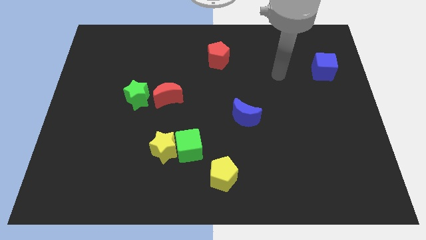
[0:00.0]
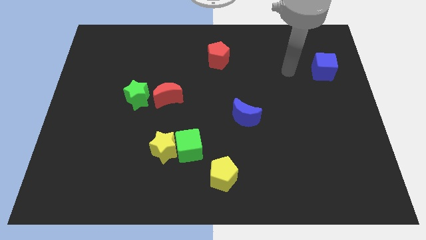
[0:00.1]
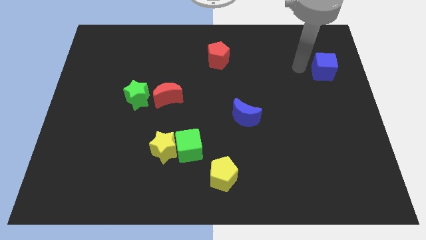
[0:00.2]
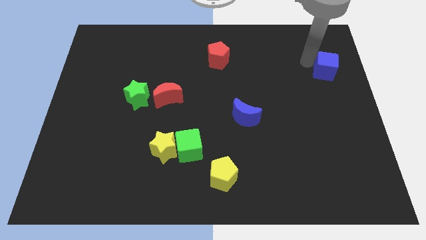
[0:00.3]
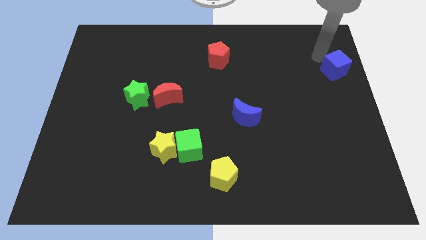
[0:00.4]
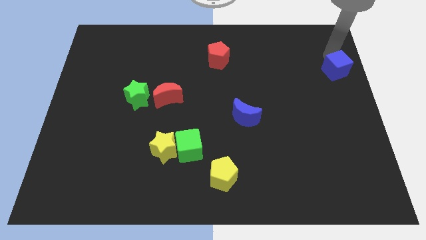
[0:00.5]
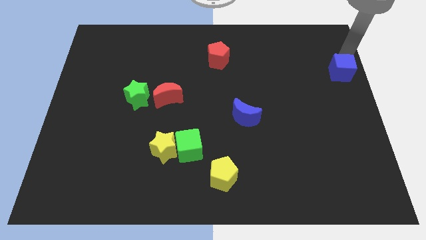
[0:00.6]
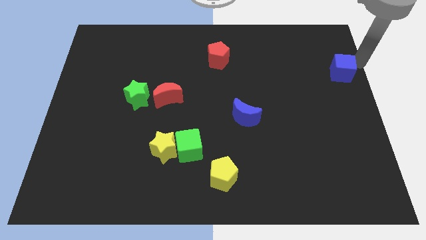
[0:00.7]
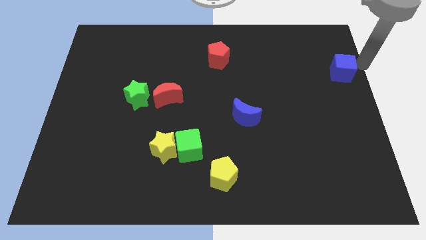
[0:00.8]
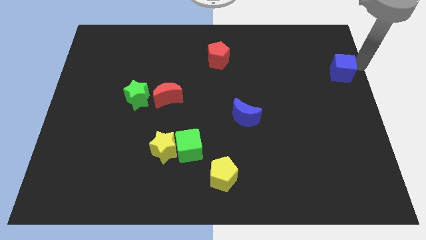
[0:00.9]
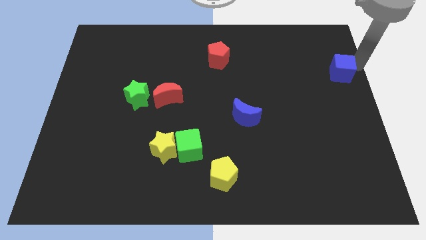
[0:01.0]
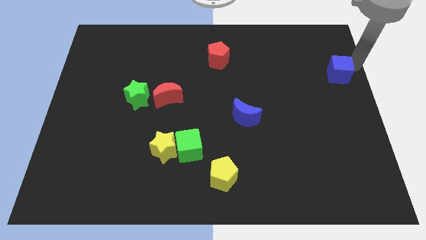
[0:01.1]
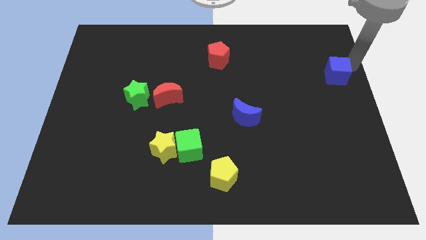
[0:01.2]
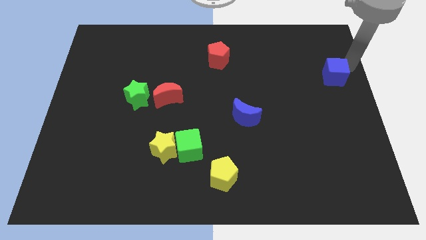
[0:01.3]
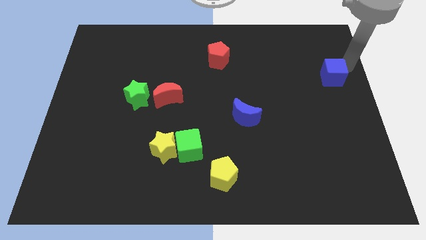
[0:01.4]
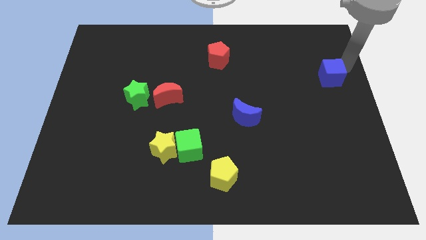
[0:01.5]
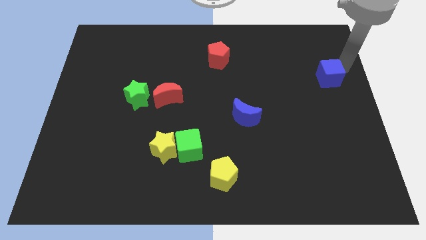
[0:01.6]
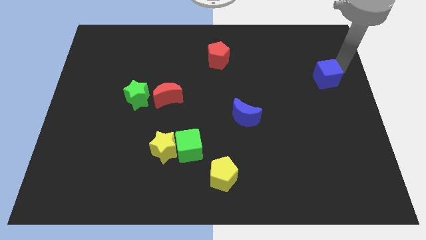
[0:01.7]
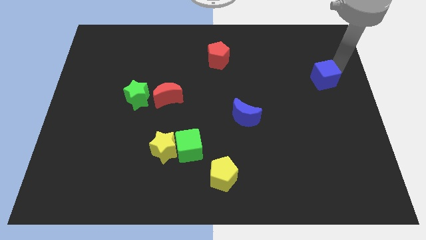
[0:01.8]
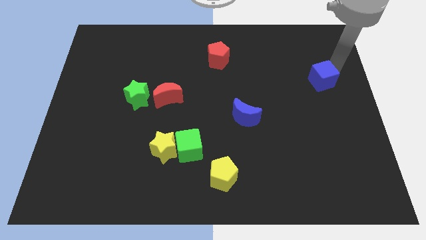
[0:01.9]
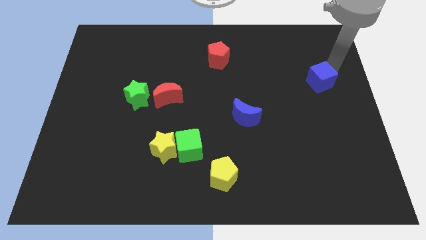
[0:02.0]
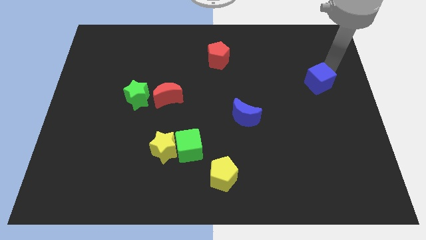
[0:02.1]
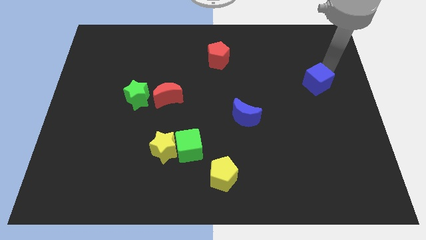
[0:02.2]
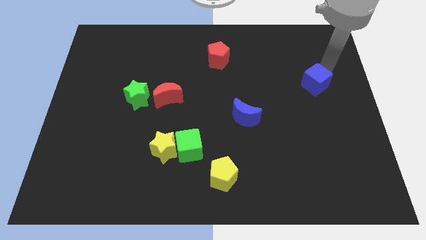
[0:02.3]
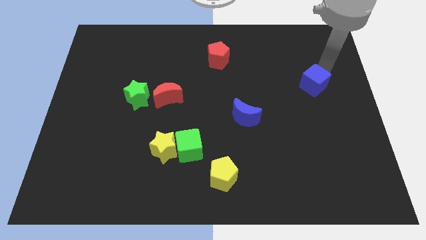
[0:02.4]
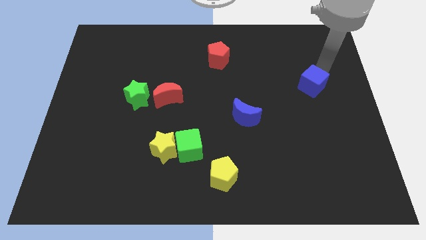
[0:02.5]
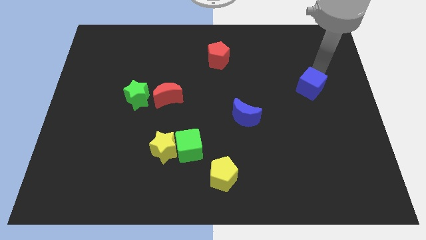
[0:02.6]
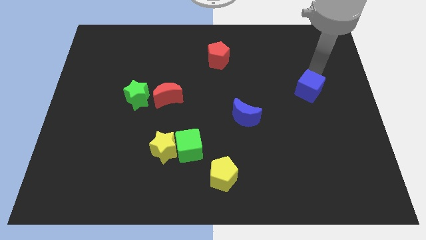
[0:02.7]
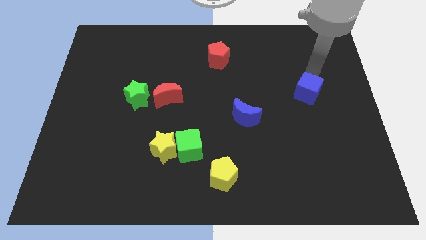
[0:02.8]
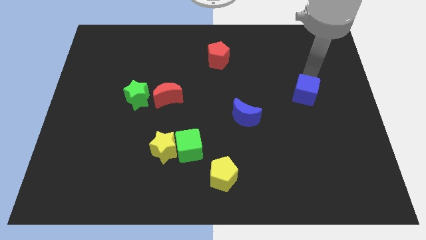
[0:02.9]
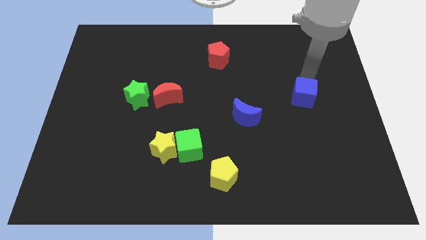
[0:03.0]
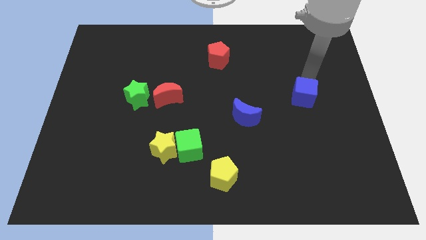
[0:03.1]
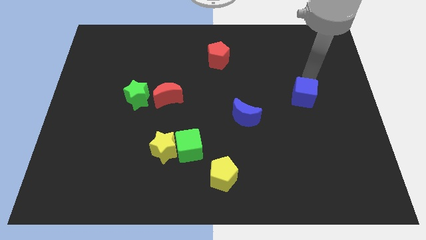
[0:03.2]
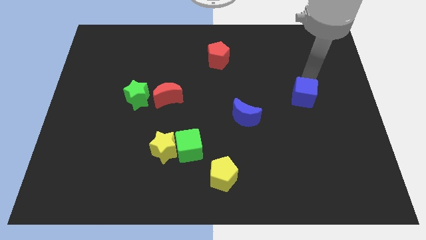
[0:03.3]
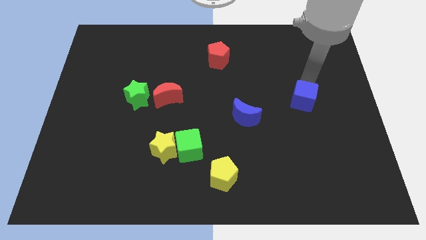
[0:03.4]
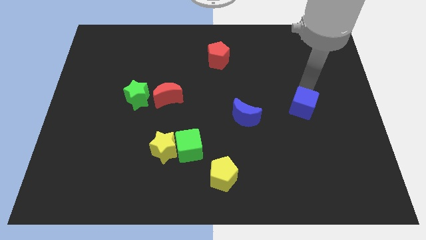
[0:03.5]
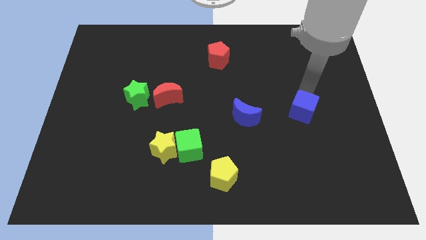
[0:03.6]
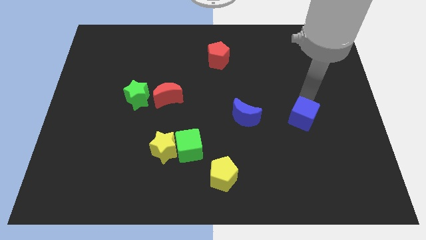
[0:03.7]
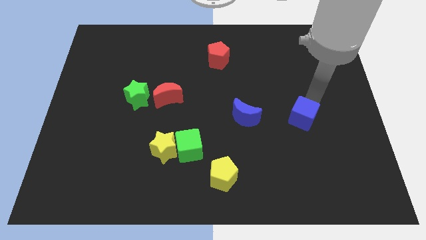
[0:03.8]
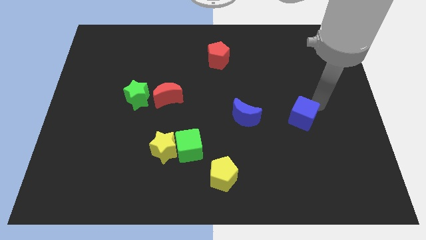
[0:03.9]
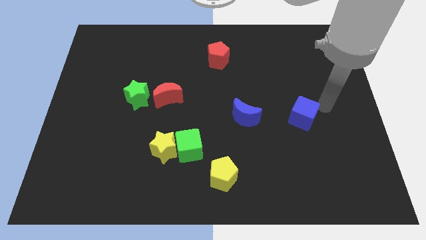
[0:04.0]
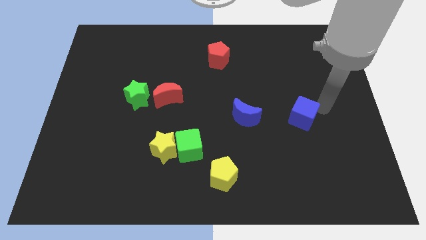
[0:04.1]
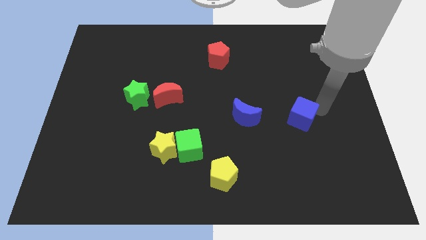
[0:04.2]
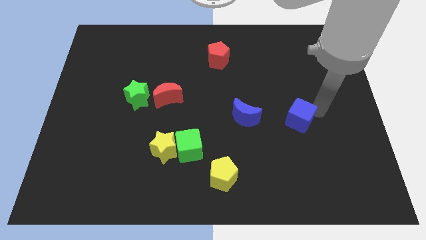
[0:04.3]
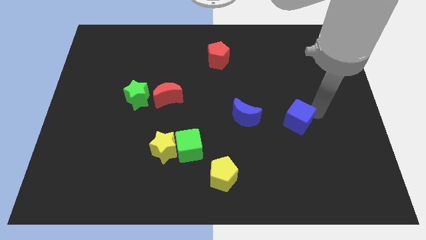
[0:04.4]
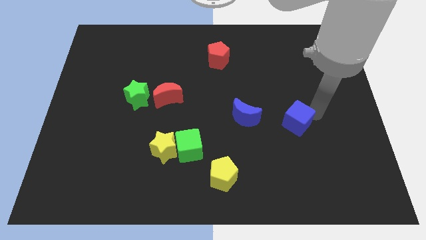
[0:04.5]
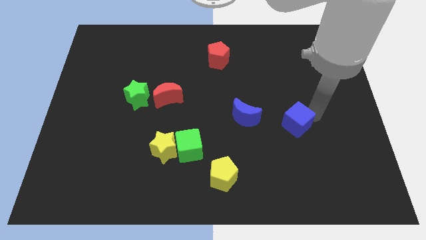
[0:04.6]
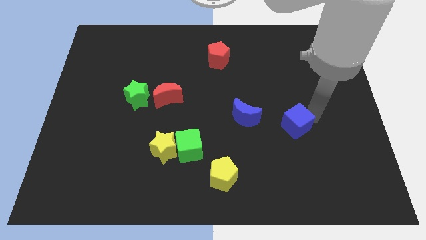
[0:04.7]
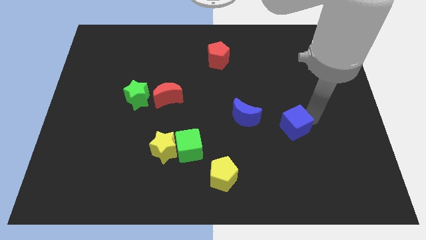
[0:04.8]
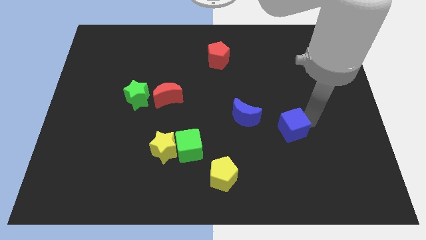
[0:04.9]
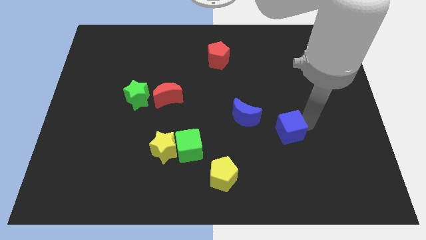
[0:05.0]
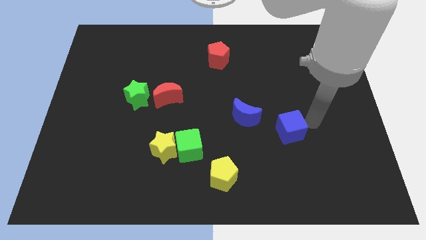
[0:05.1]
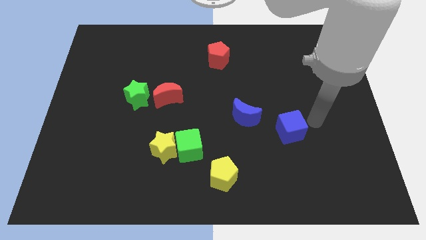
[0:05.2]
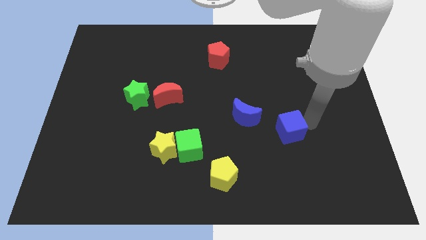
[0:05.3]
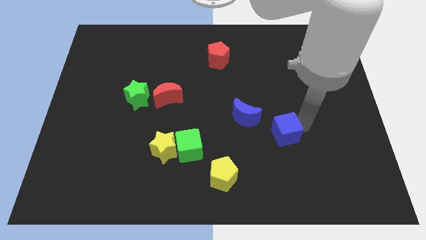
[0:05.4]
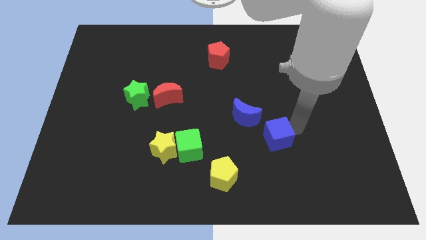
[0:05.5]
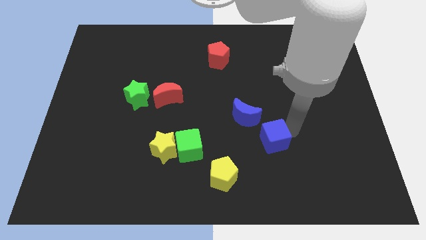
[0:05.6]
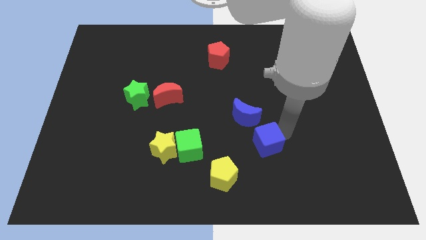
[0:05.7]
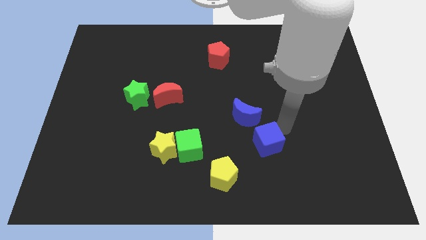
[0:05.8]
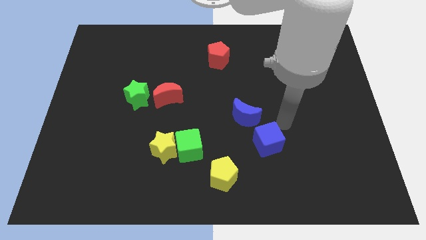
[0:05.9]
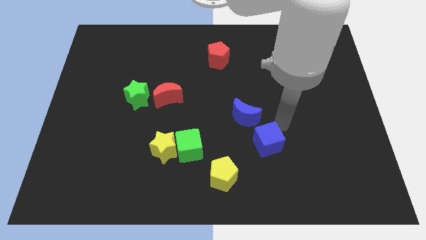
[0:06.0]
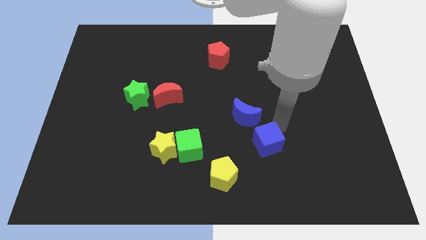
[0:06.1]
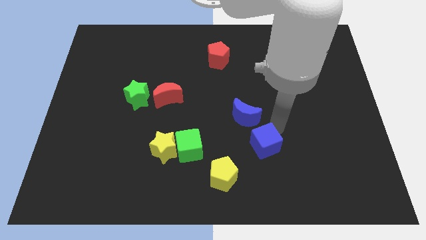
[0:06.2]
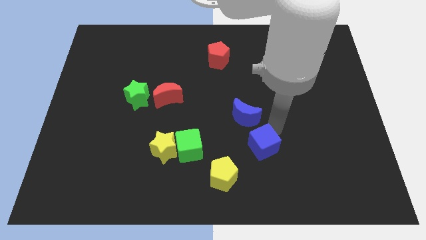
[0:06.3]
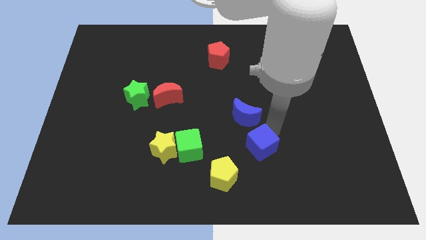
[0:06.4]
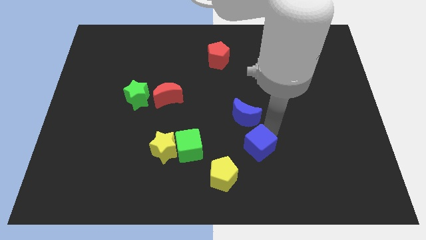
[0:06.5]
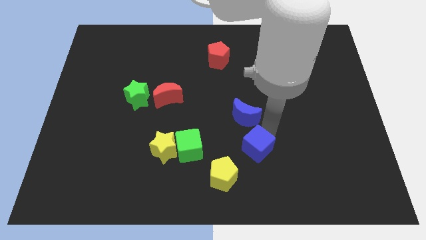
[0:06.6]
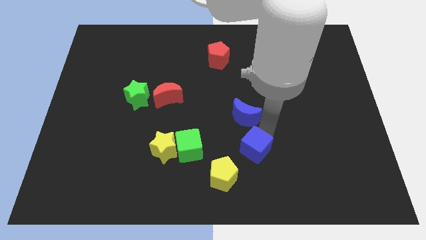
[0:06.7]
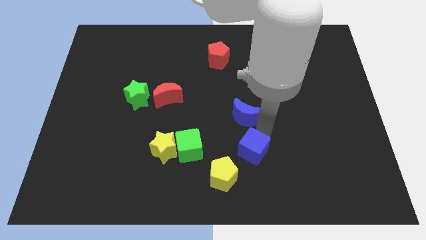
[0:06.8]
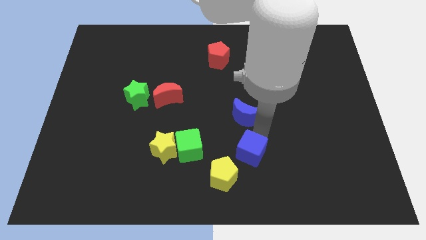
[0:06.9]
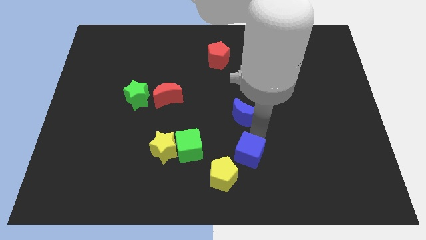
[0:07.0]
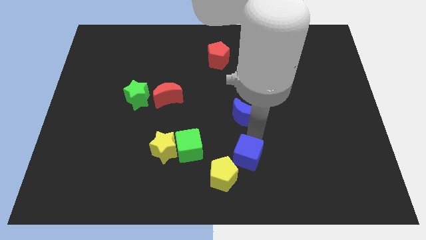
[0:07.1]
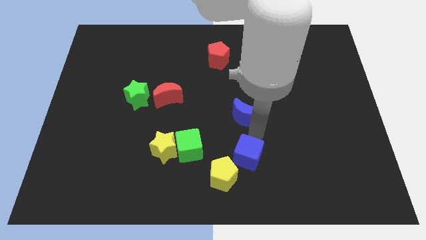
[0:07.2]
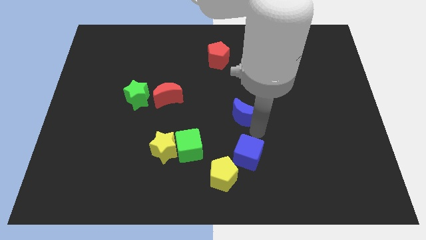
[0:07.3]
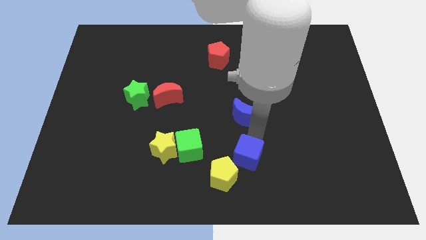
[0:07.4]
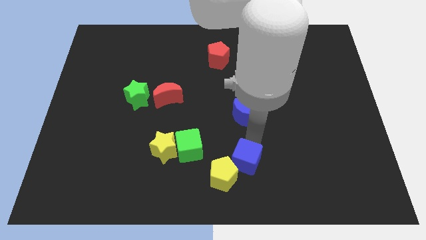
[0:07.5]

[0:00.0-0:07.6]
push the blue cube to the yellow pentagon

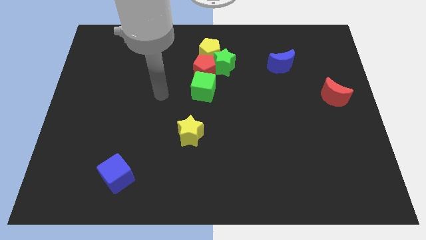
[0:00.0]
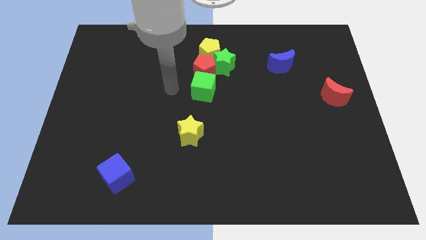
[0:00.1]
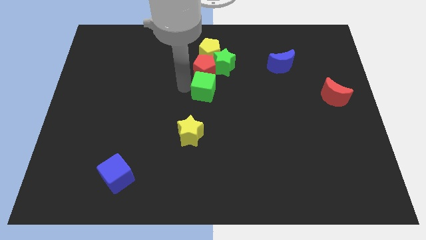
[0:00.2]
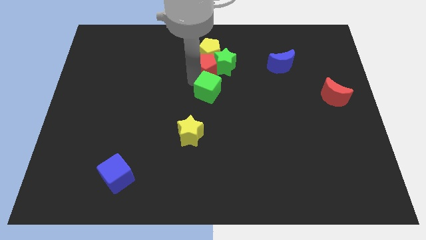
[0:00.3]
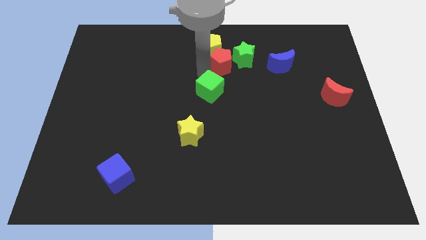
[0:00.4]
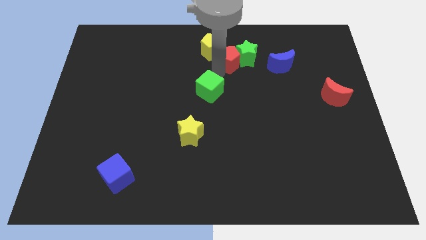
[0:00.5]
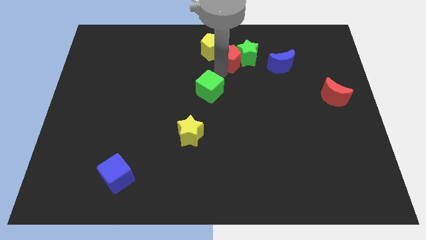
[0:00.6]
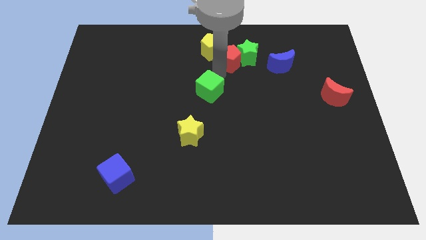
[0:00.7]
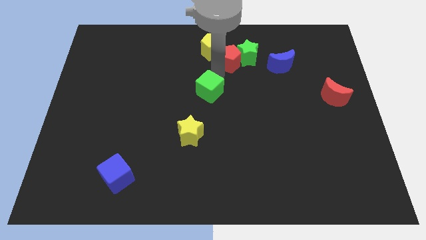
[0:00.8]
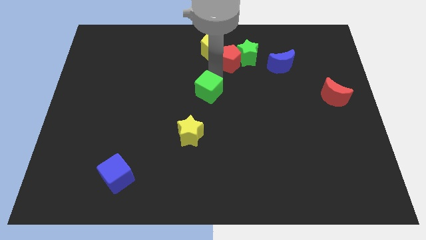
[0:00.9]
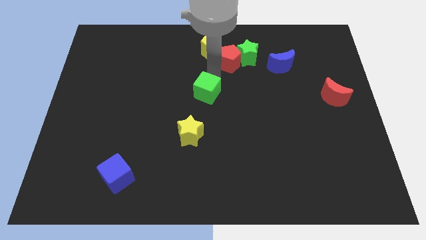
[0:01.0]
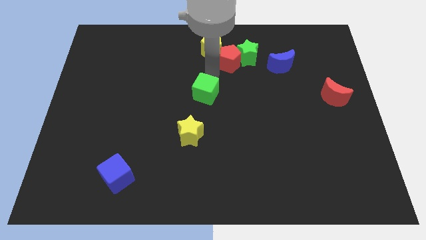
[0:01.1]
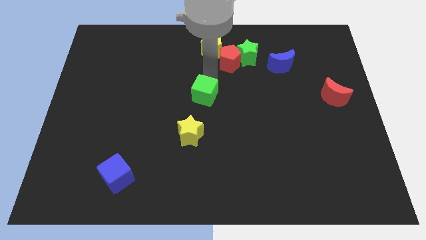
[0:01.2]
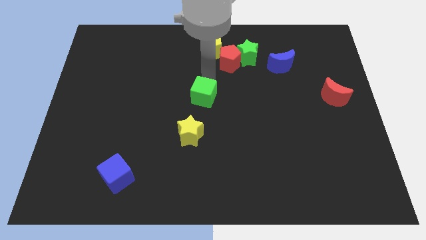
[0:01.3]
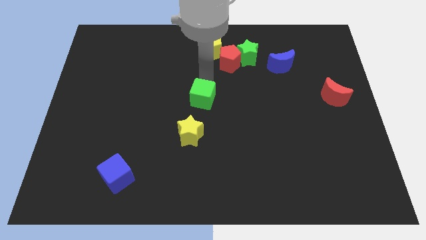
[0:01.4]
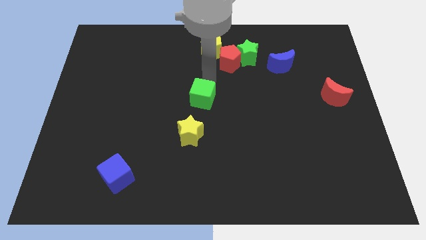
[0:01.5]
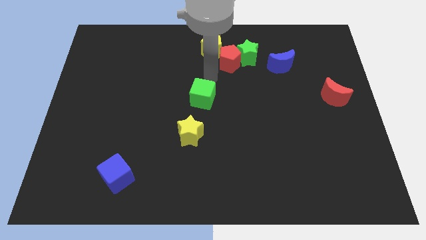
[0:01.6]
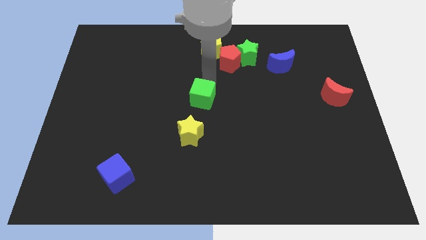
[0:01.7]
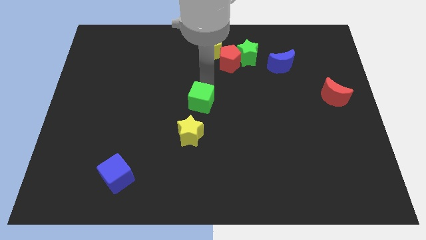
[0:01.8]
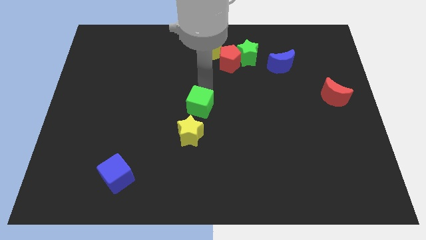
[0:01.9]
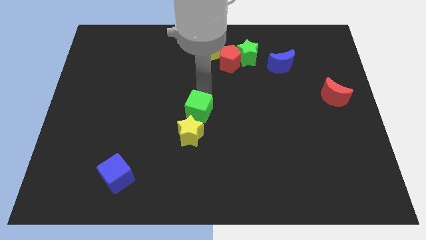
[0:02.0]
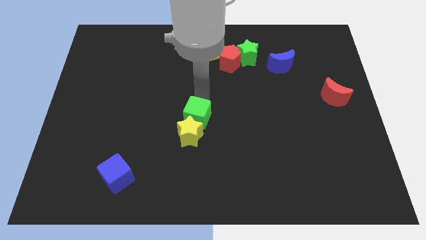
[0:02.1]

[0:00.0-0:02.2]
put the green cube towards the yellow star
